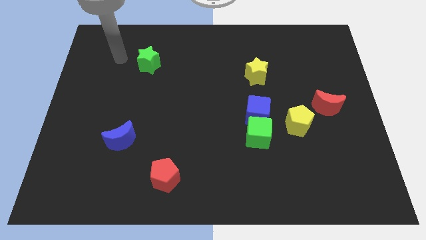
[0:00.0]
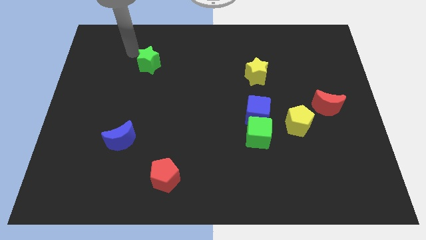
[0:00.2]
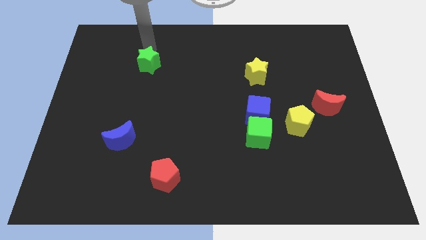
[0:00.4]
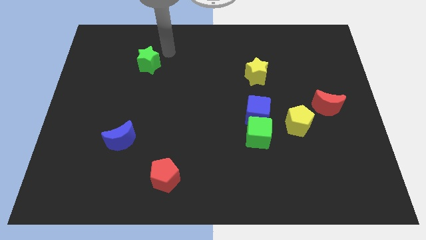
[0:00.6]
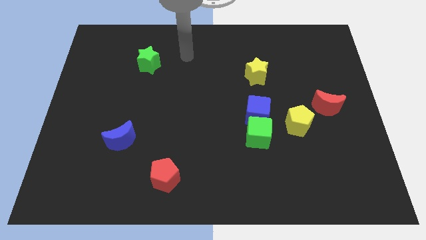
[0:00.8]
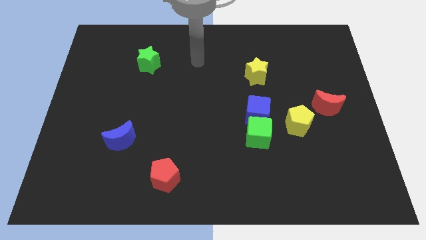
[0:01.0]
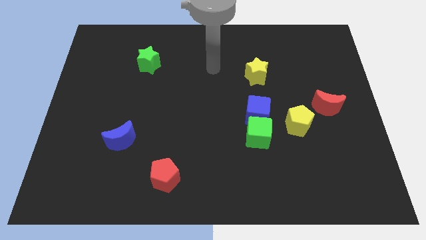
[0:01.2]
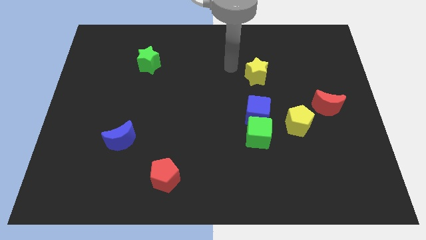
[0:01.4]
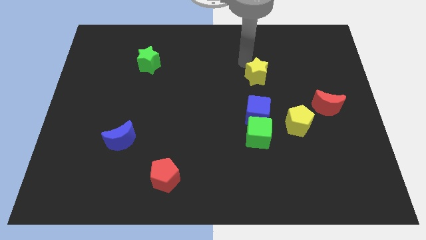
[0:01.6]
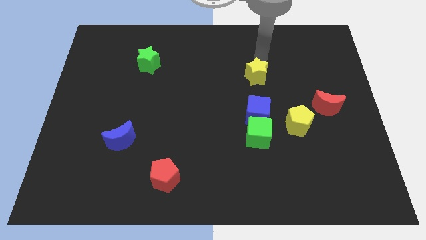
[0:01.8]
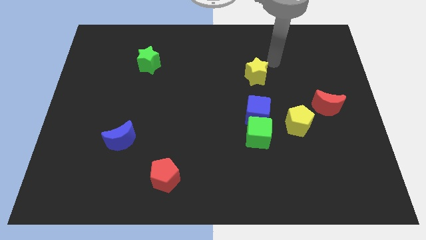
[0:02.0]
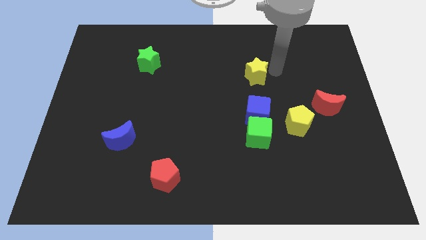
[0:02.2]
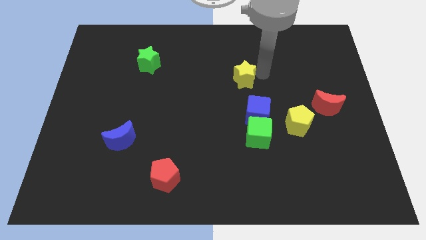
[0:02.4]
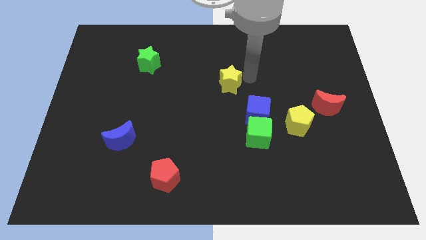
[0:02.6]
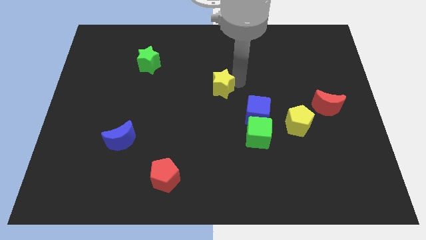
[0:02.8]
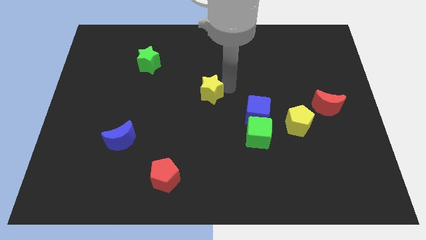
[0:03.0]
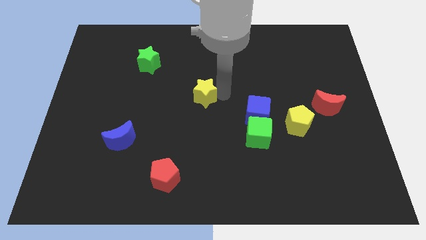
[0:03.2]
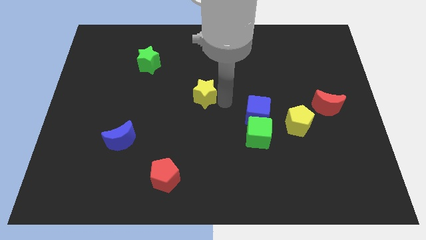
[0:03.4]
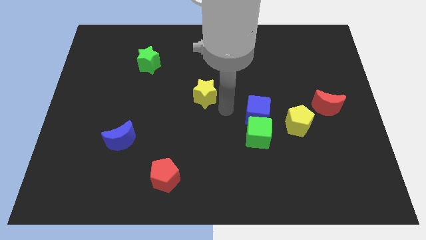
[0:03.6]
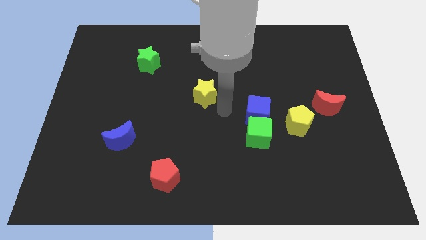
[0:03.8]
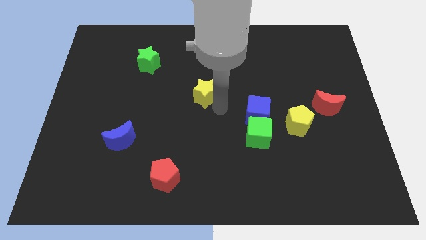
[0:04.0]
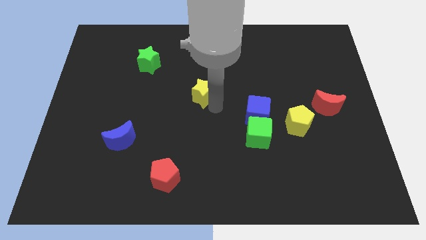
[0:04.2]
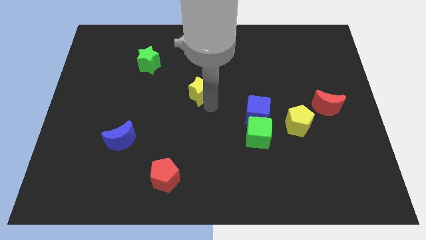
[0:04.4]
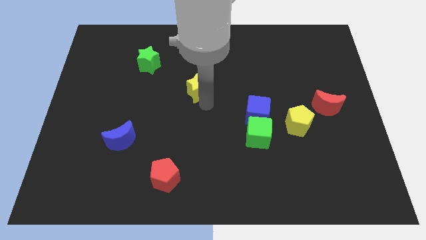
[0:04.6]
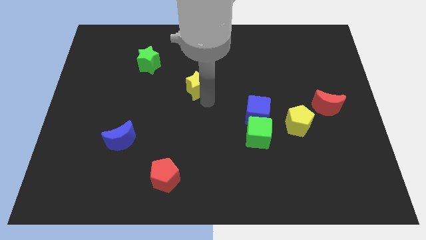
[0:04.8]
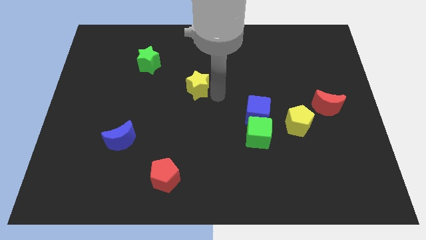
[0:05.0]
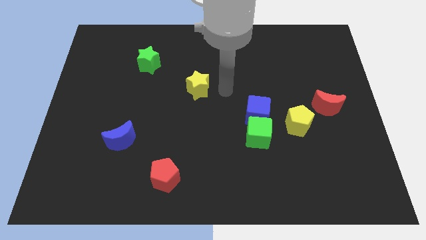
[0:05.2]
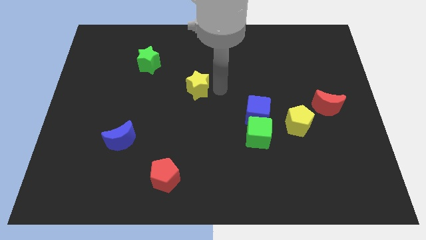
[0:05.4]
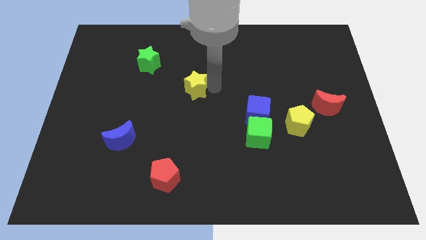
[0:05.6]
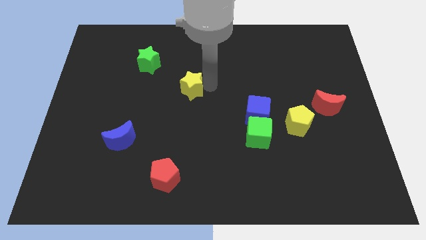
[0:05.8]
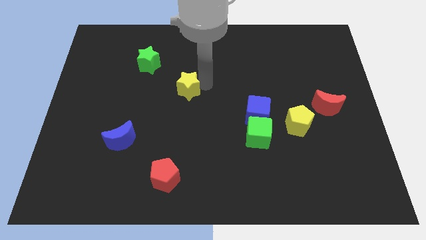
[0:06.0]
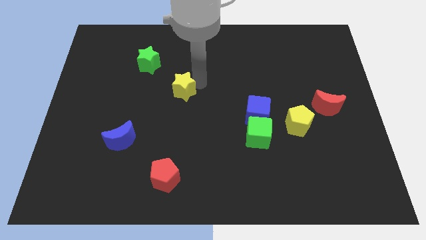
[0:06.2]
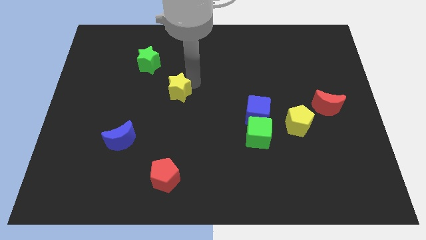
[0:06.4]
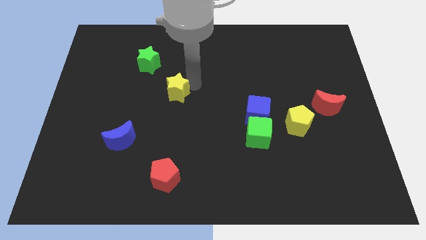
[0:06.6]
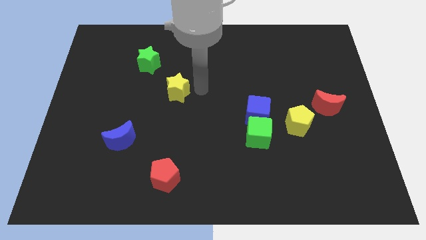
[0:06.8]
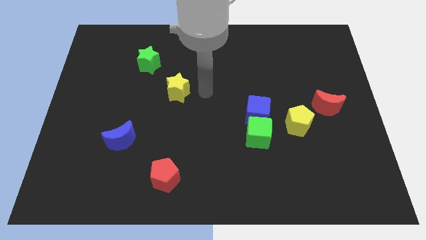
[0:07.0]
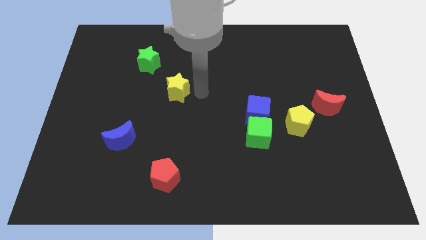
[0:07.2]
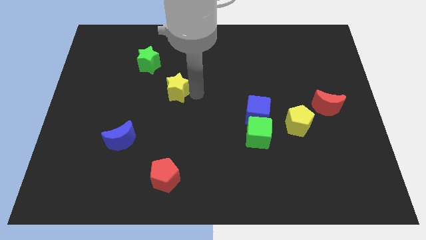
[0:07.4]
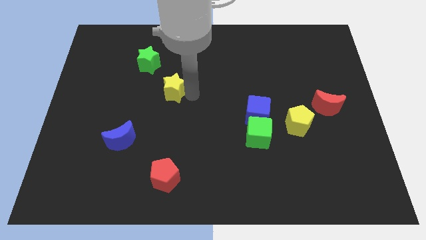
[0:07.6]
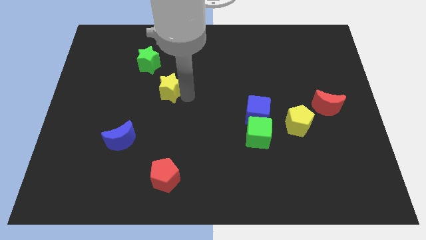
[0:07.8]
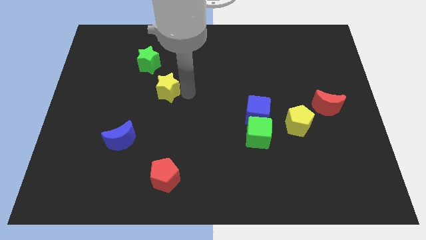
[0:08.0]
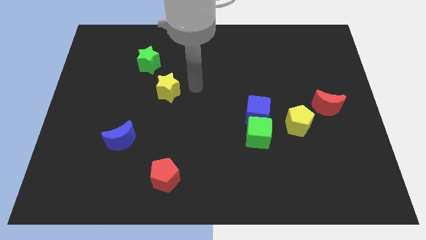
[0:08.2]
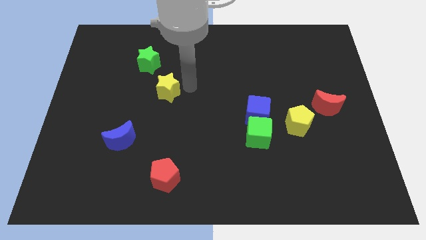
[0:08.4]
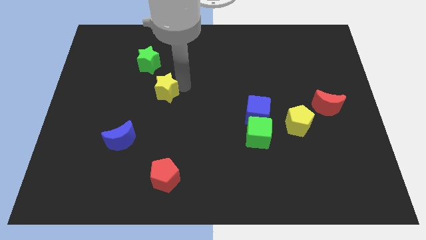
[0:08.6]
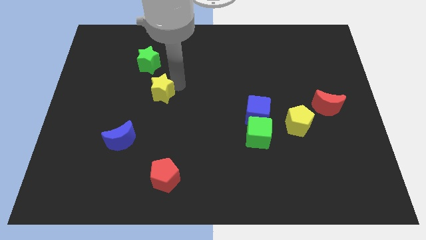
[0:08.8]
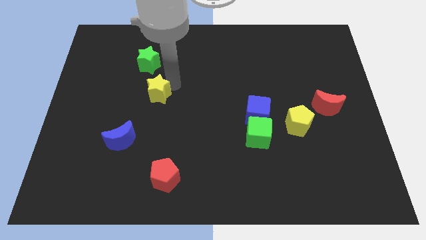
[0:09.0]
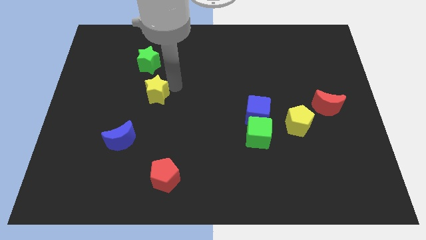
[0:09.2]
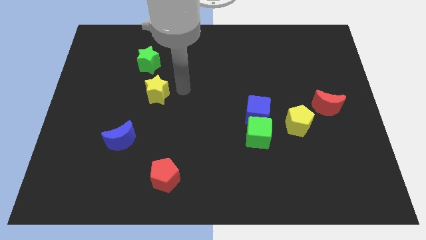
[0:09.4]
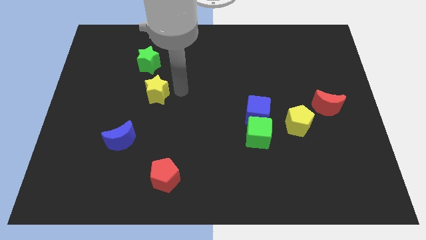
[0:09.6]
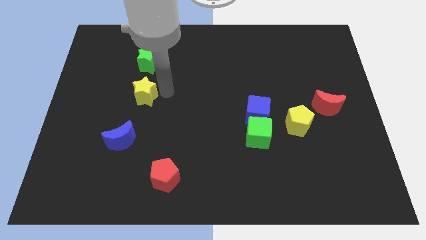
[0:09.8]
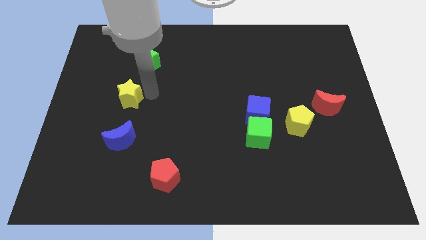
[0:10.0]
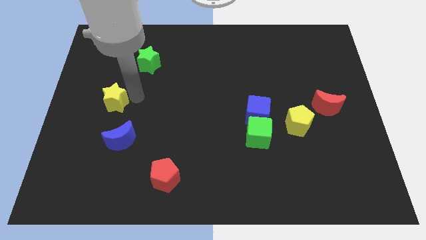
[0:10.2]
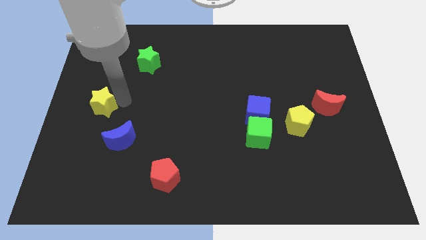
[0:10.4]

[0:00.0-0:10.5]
slide the yellow star to the left side

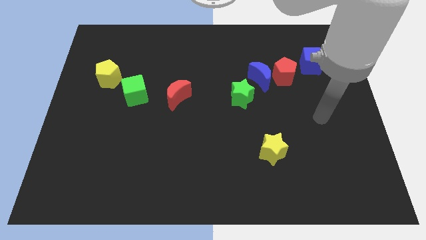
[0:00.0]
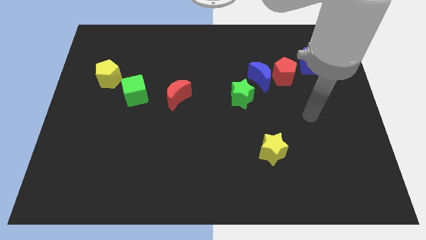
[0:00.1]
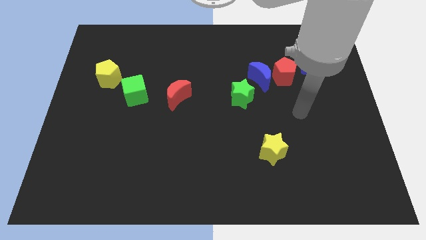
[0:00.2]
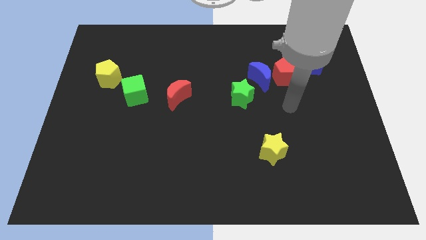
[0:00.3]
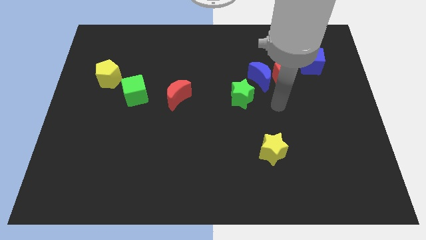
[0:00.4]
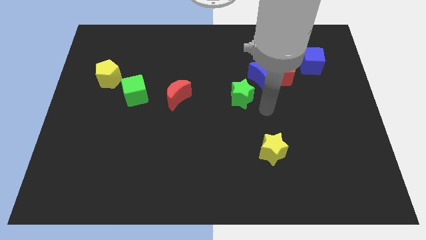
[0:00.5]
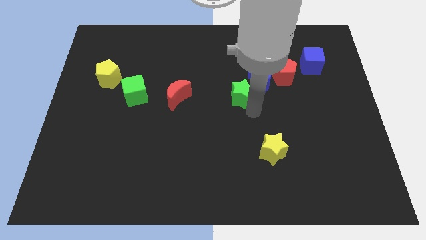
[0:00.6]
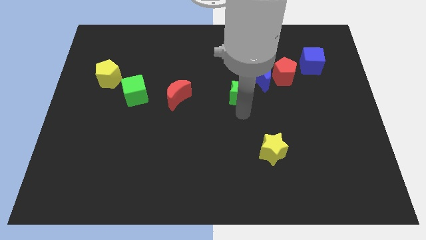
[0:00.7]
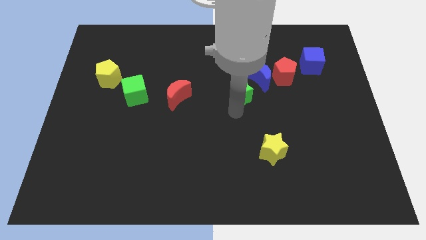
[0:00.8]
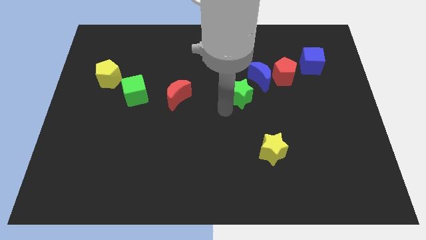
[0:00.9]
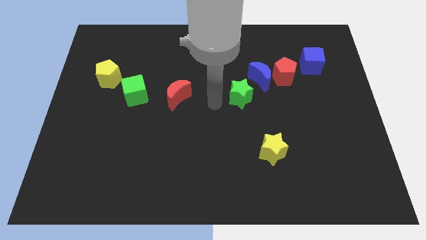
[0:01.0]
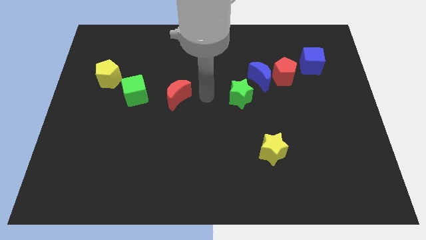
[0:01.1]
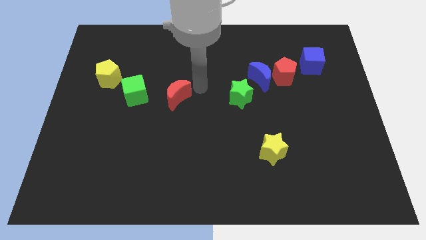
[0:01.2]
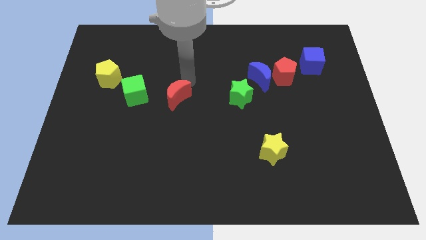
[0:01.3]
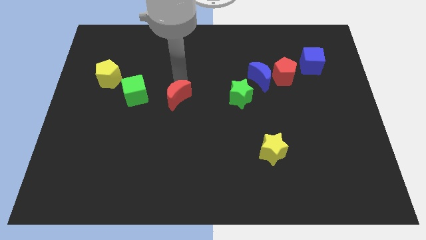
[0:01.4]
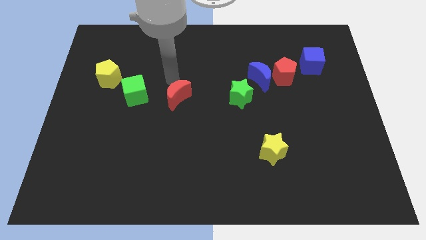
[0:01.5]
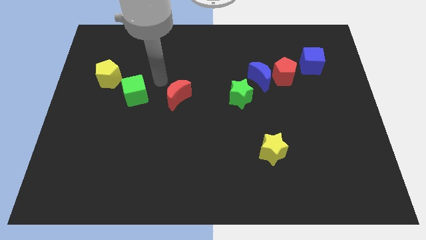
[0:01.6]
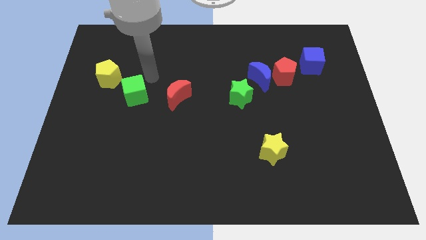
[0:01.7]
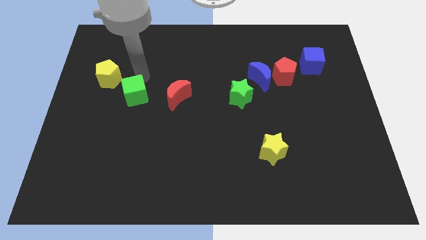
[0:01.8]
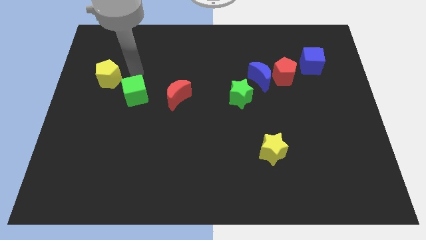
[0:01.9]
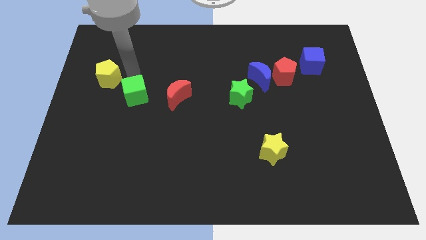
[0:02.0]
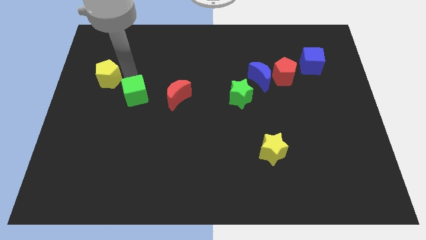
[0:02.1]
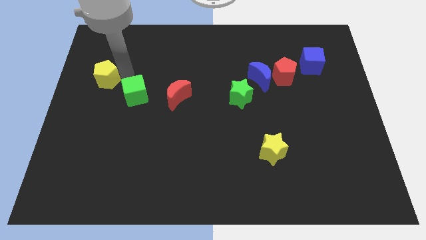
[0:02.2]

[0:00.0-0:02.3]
slide the yellow pentagon to the left side of the board
